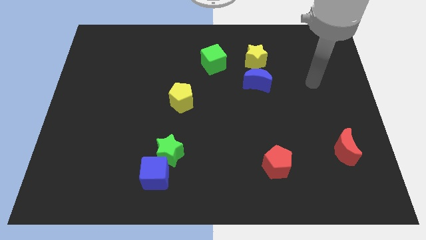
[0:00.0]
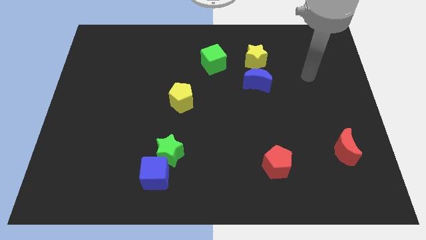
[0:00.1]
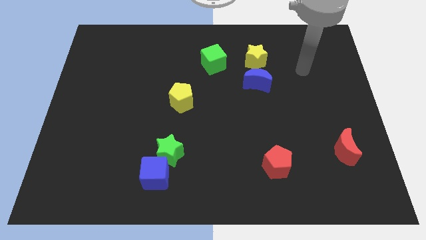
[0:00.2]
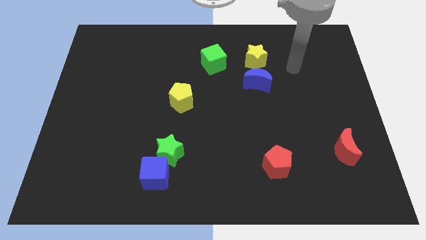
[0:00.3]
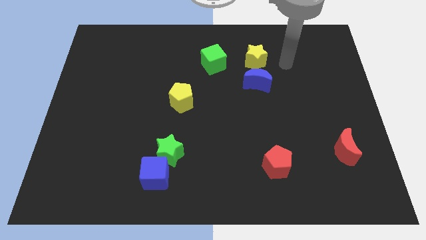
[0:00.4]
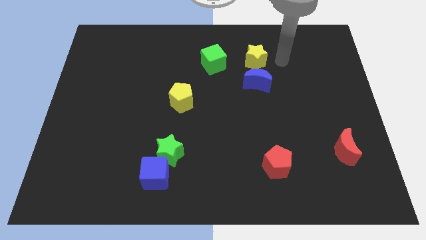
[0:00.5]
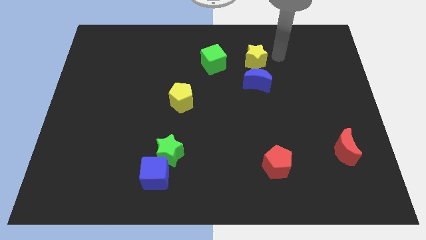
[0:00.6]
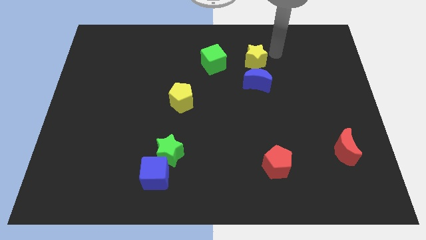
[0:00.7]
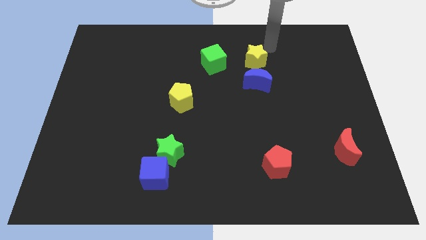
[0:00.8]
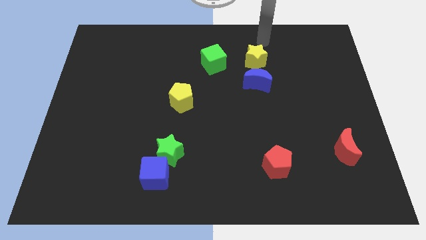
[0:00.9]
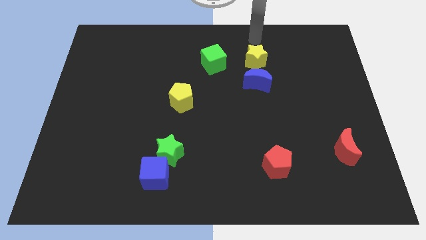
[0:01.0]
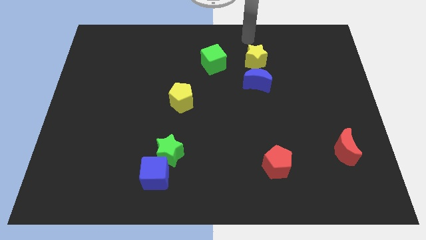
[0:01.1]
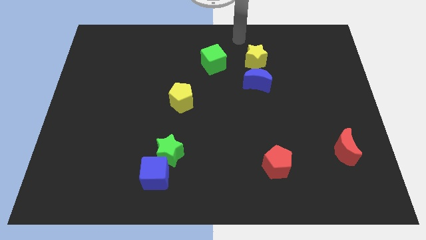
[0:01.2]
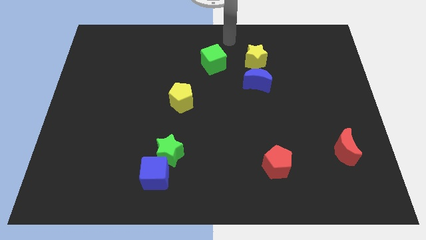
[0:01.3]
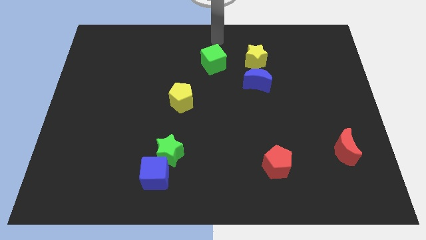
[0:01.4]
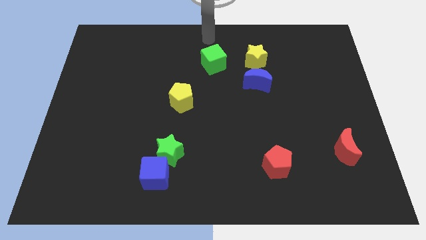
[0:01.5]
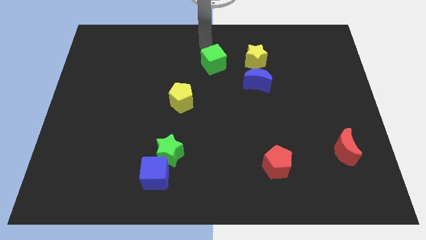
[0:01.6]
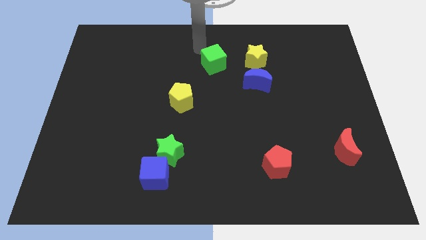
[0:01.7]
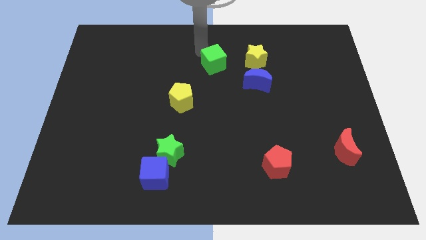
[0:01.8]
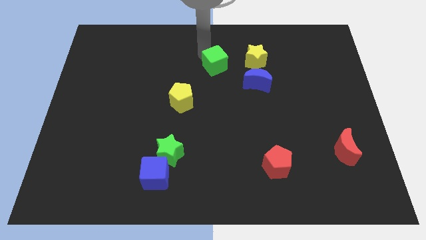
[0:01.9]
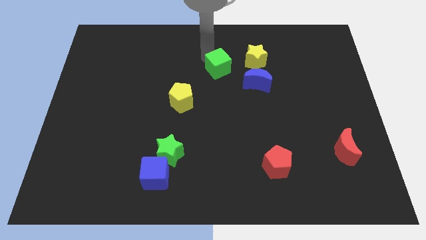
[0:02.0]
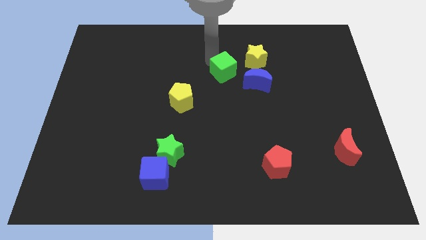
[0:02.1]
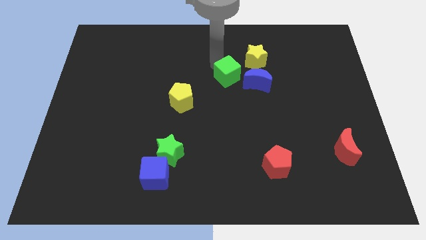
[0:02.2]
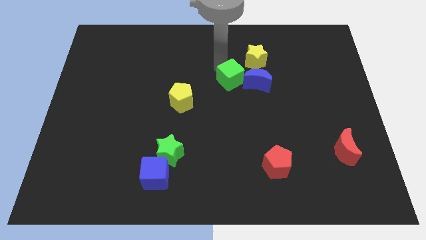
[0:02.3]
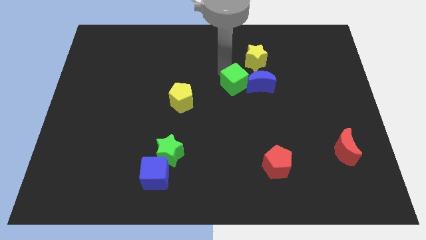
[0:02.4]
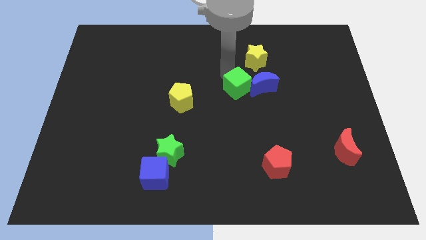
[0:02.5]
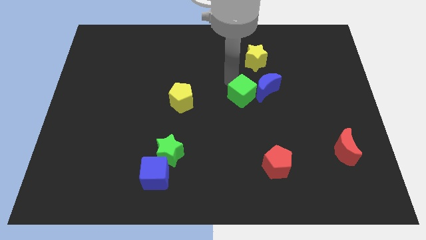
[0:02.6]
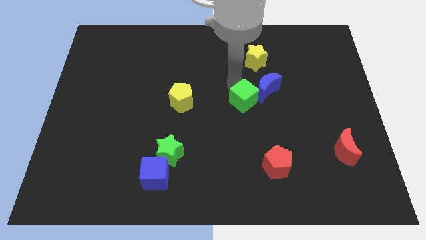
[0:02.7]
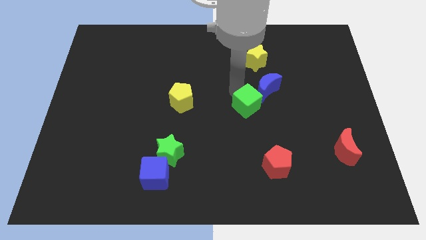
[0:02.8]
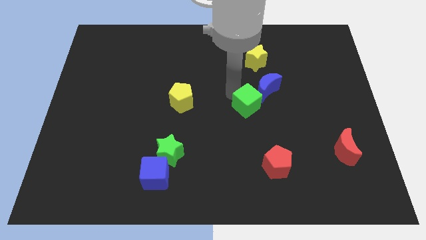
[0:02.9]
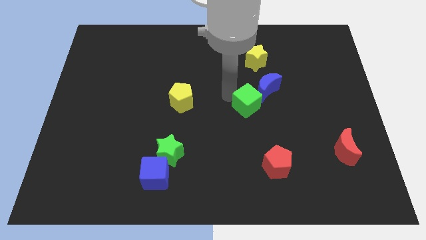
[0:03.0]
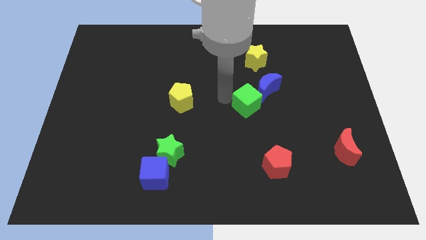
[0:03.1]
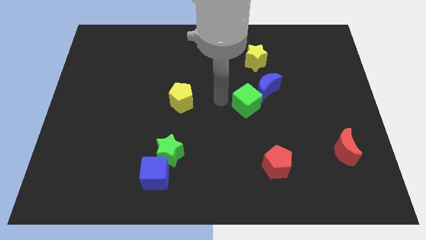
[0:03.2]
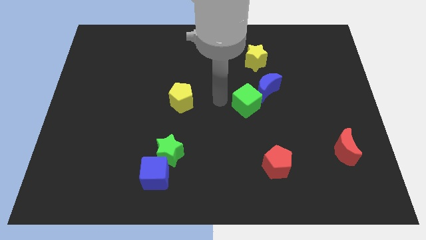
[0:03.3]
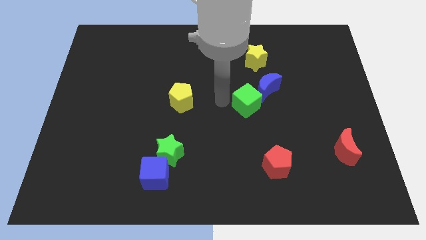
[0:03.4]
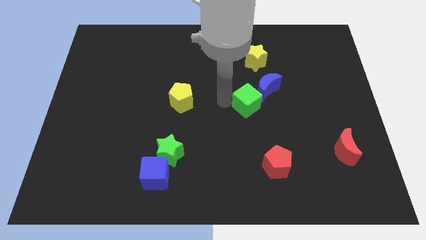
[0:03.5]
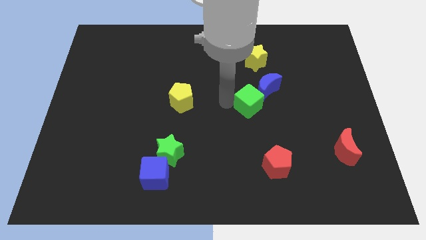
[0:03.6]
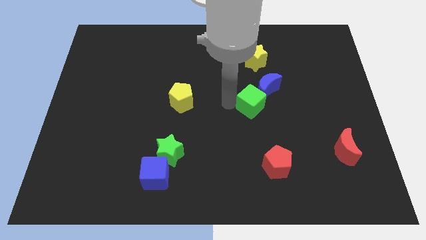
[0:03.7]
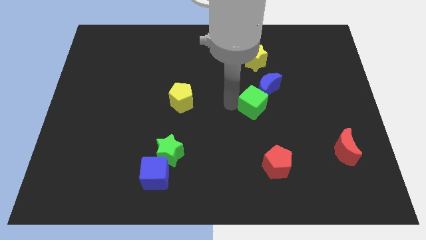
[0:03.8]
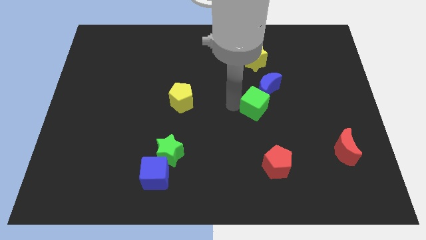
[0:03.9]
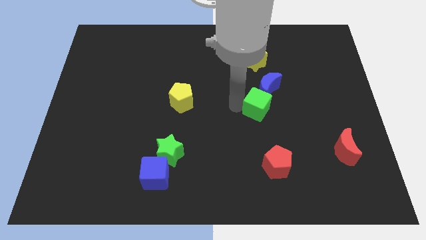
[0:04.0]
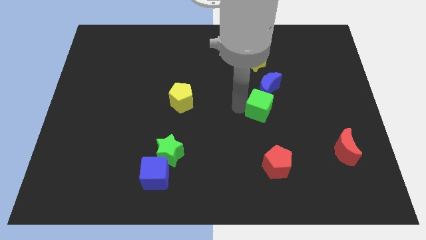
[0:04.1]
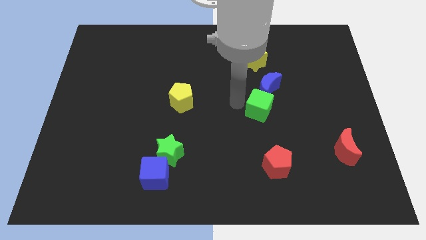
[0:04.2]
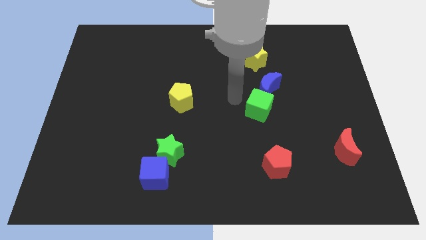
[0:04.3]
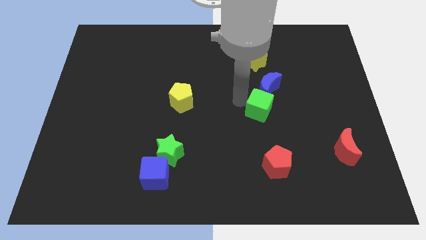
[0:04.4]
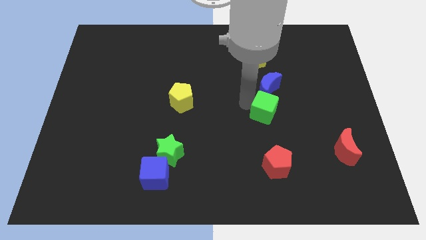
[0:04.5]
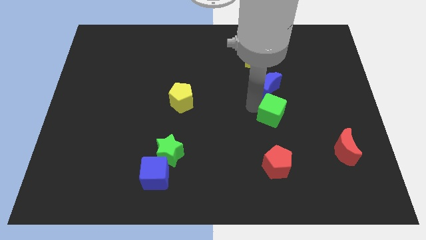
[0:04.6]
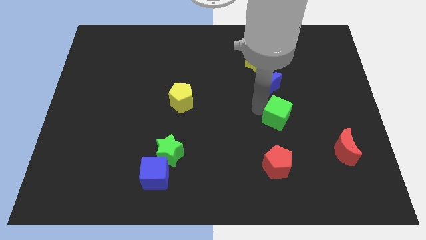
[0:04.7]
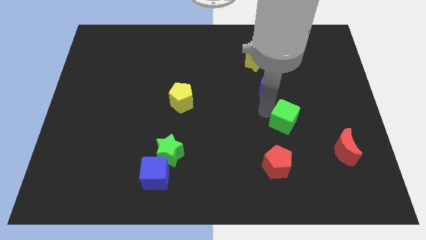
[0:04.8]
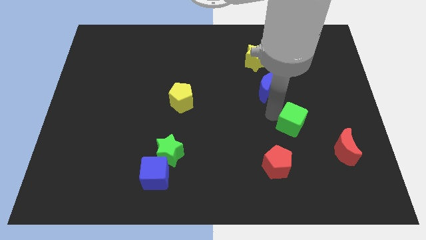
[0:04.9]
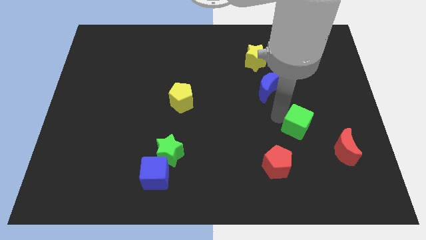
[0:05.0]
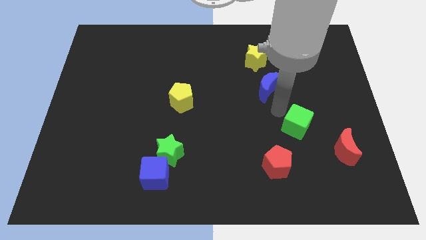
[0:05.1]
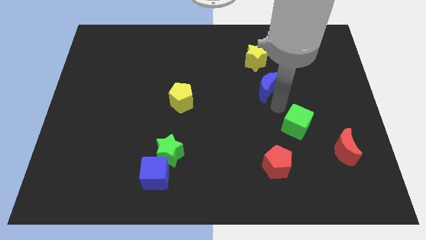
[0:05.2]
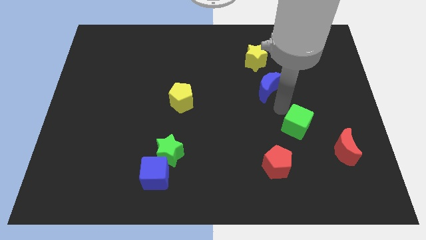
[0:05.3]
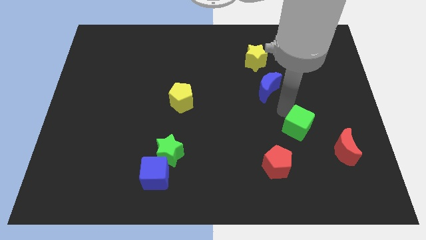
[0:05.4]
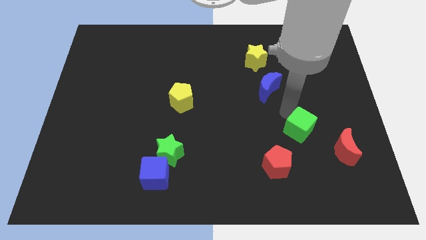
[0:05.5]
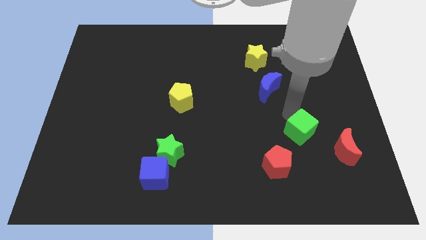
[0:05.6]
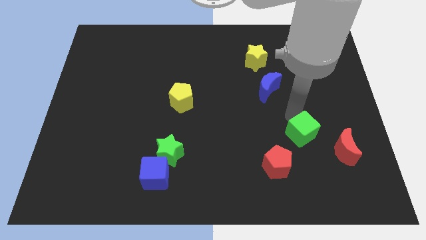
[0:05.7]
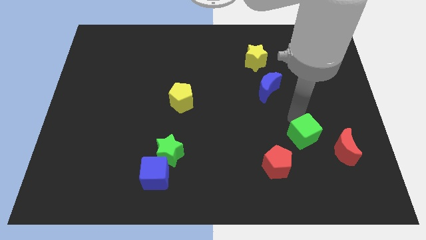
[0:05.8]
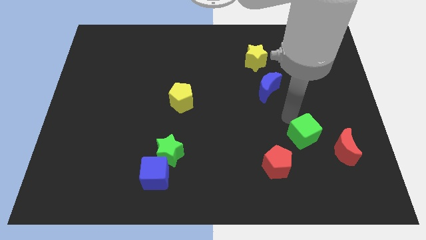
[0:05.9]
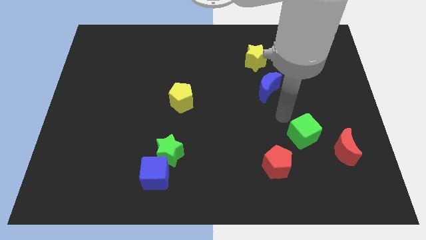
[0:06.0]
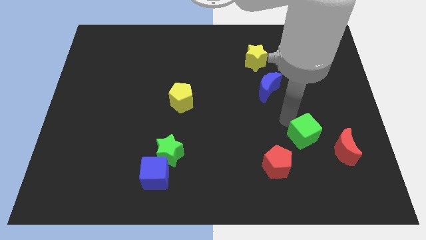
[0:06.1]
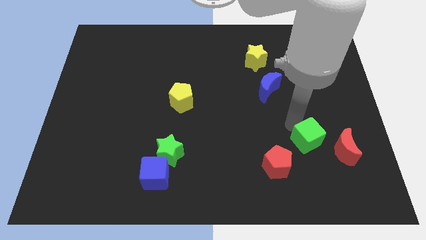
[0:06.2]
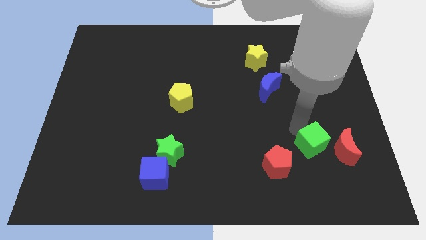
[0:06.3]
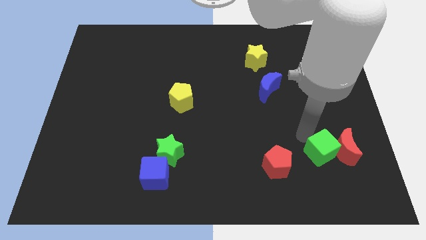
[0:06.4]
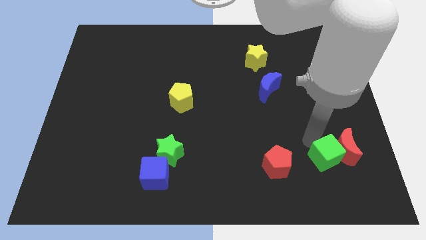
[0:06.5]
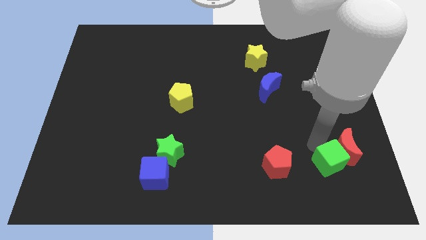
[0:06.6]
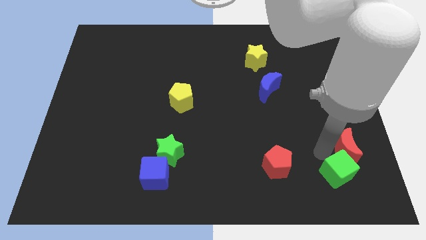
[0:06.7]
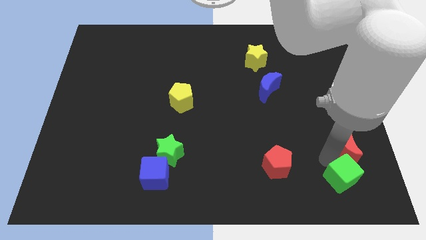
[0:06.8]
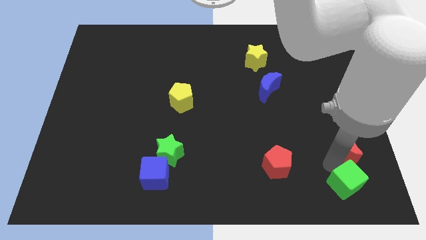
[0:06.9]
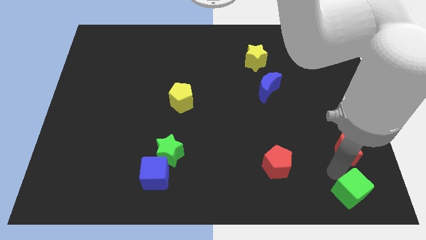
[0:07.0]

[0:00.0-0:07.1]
push the green cube to the bottom right corner
